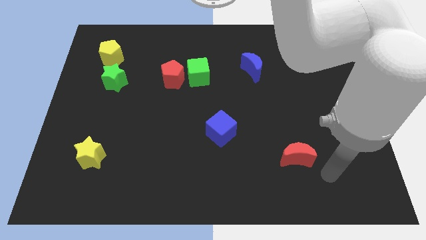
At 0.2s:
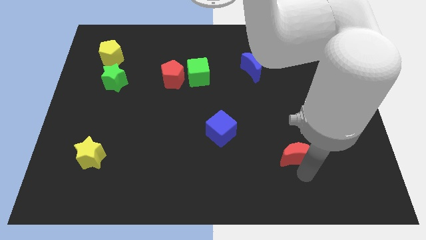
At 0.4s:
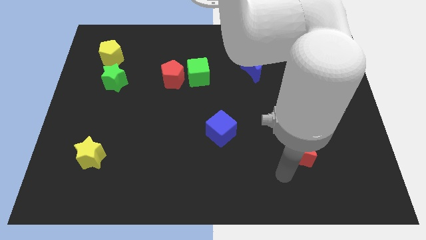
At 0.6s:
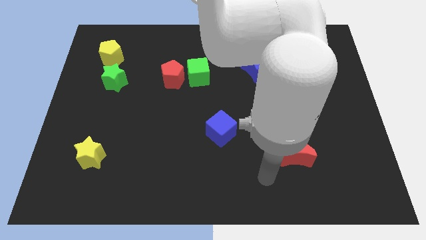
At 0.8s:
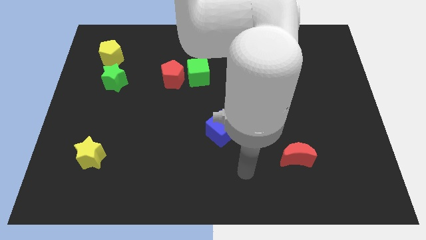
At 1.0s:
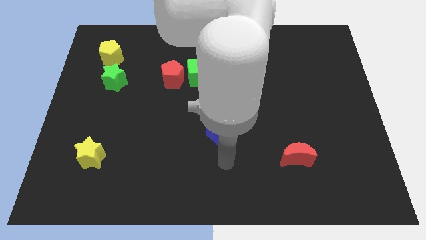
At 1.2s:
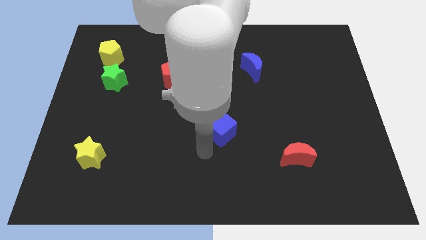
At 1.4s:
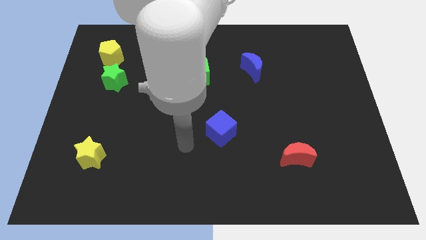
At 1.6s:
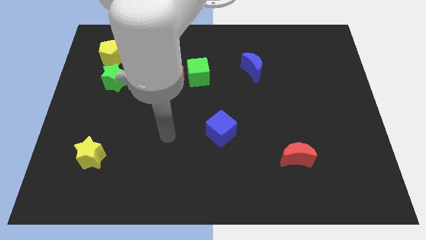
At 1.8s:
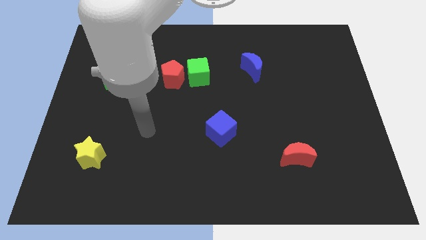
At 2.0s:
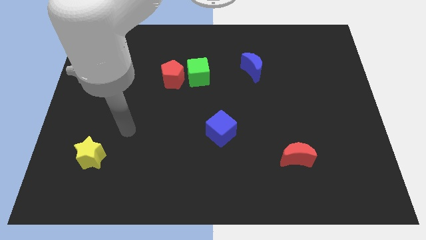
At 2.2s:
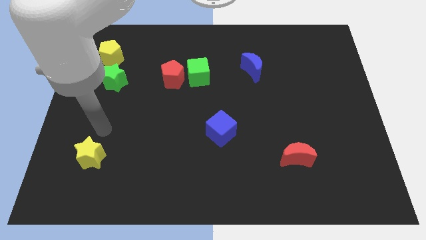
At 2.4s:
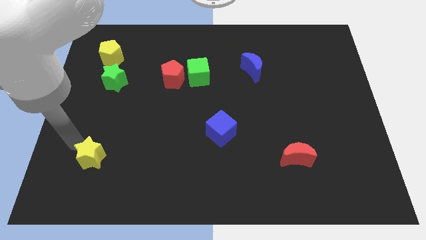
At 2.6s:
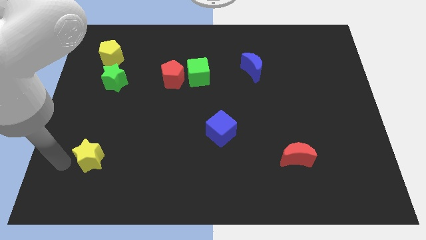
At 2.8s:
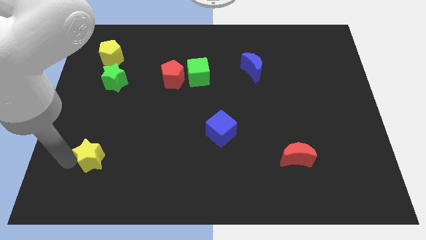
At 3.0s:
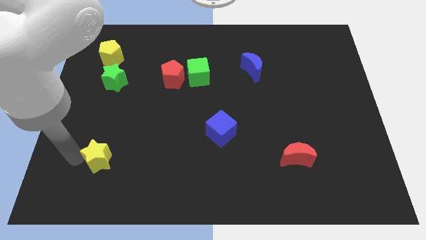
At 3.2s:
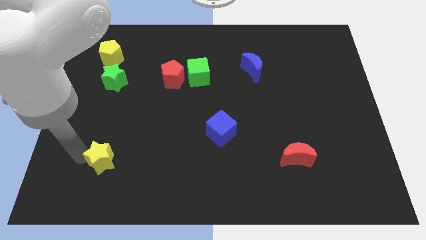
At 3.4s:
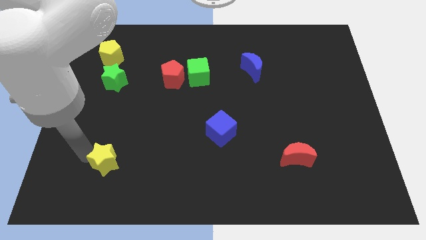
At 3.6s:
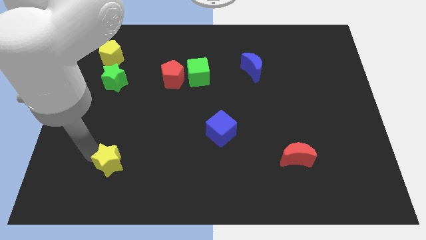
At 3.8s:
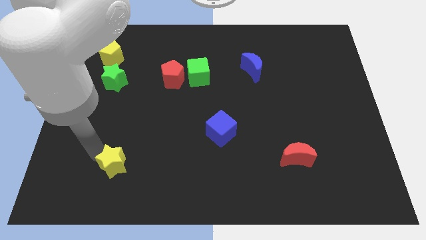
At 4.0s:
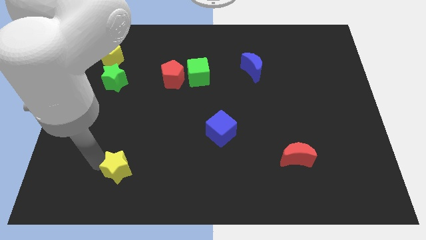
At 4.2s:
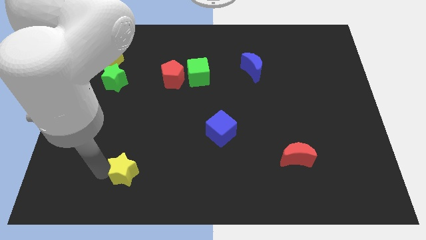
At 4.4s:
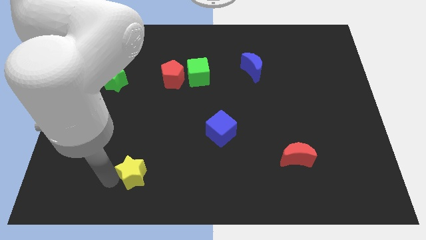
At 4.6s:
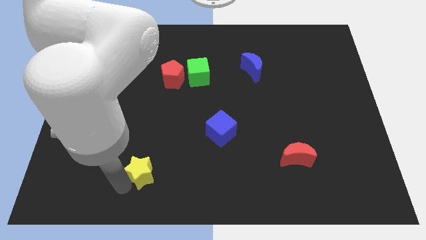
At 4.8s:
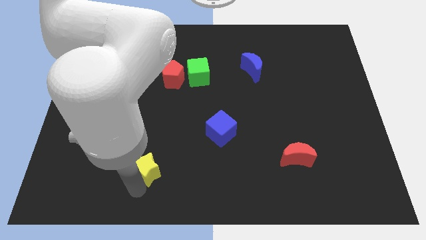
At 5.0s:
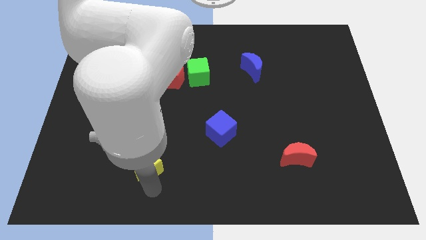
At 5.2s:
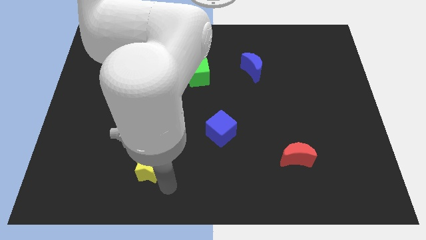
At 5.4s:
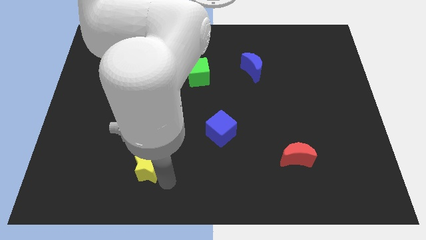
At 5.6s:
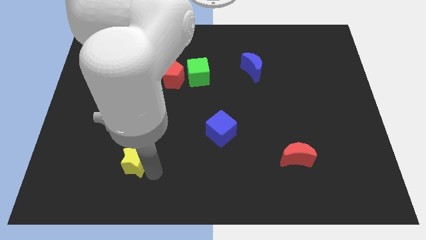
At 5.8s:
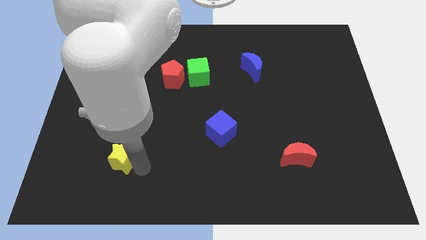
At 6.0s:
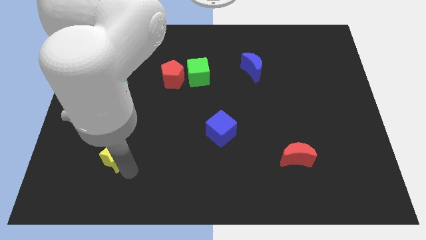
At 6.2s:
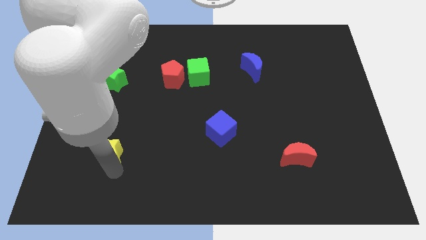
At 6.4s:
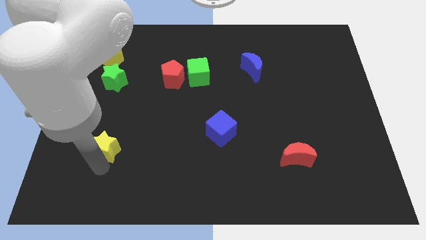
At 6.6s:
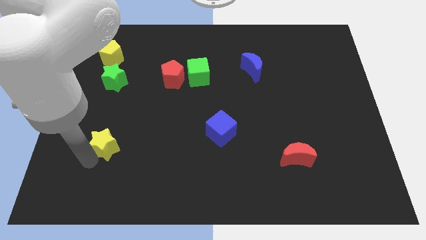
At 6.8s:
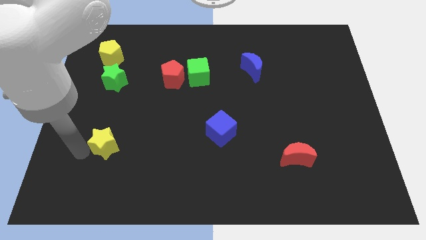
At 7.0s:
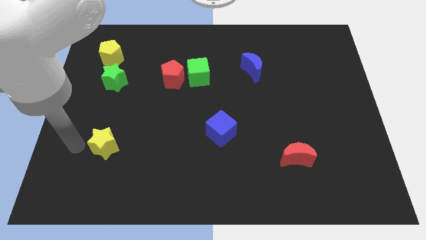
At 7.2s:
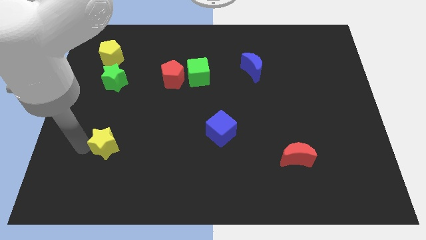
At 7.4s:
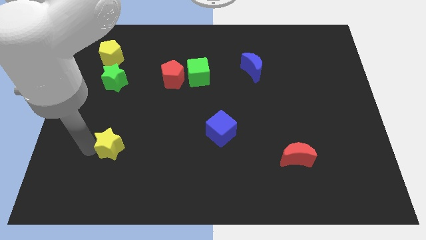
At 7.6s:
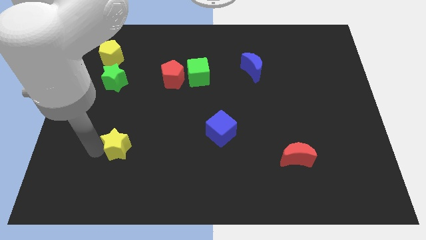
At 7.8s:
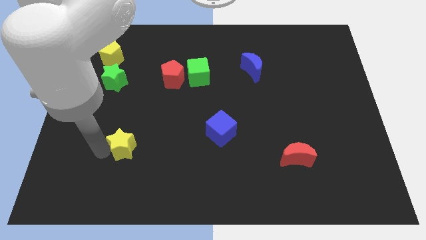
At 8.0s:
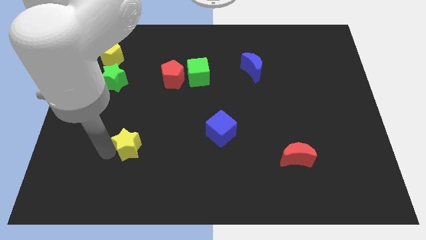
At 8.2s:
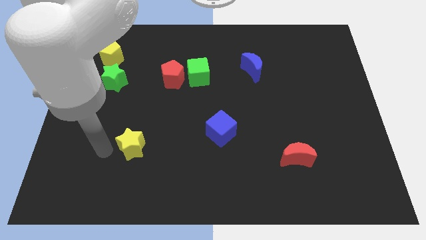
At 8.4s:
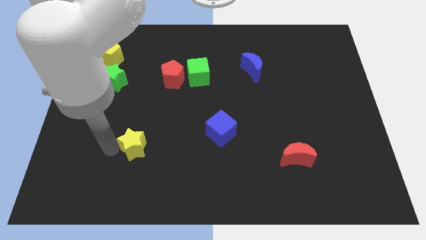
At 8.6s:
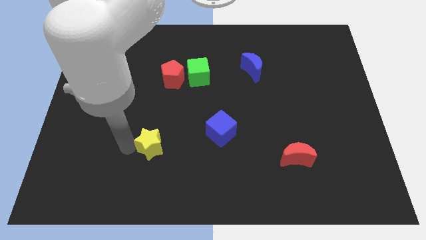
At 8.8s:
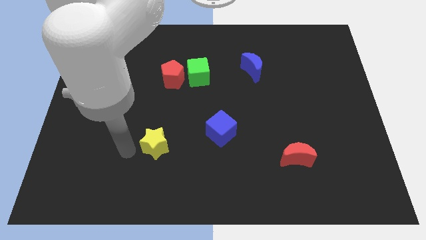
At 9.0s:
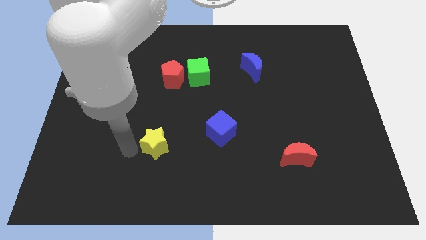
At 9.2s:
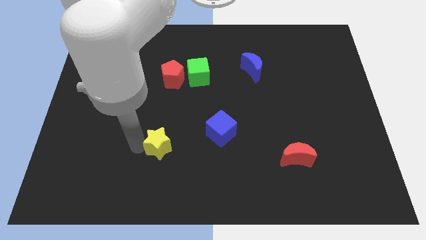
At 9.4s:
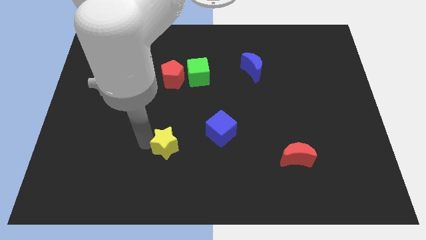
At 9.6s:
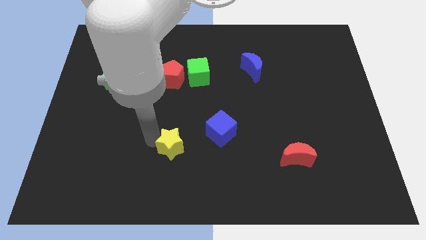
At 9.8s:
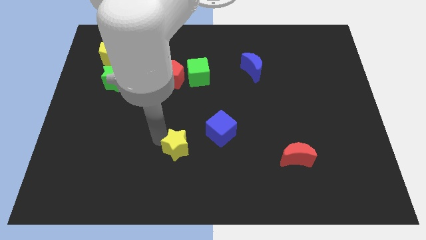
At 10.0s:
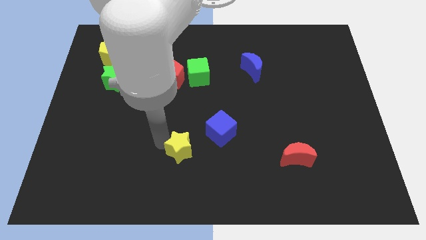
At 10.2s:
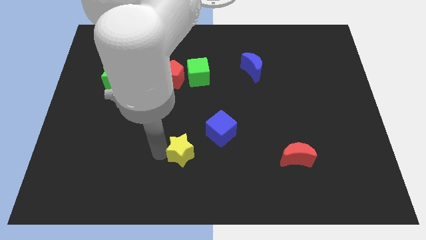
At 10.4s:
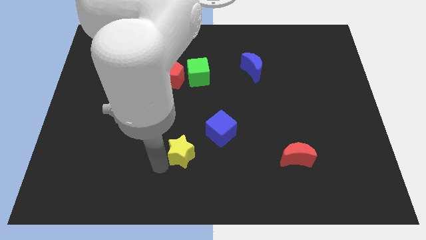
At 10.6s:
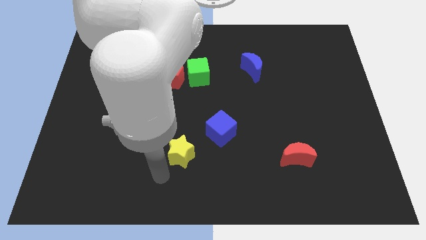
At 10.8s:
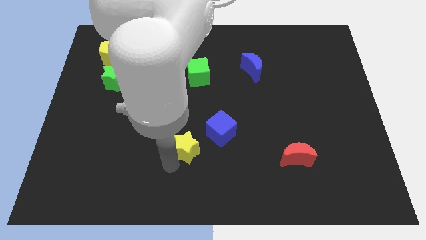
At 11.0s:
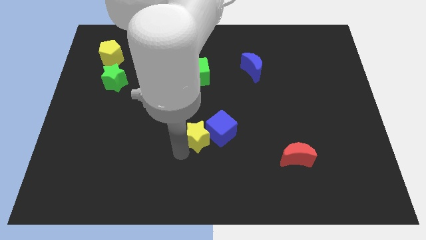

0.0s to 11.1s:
move the yellow star next to the blue cube

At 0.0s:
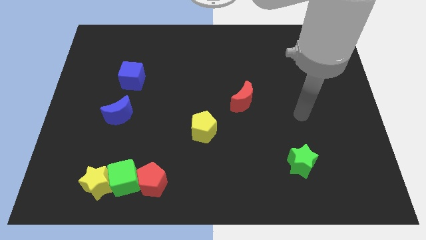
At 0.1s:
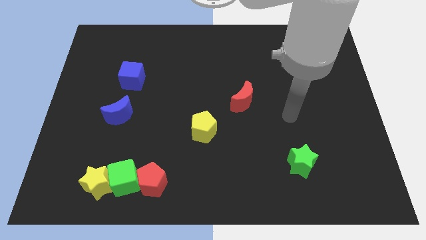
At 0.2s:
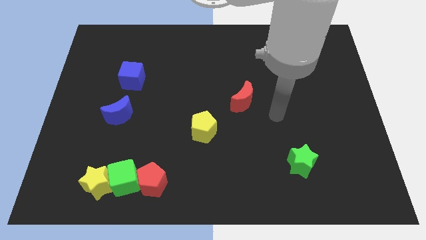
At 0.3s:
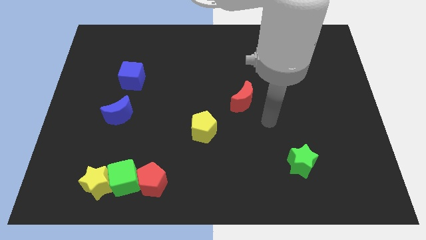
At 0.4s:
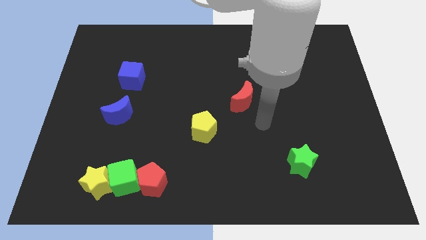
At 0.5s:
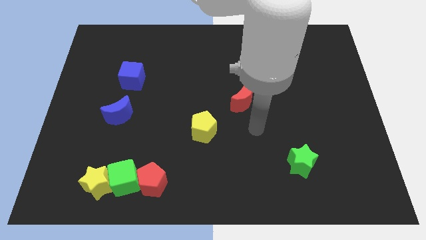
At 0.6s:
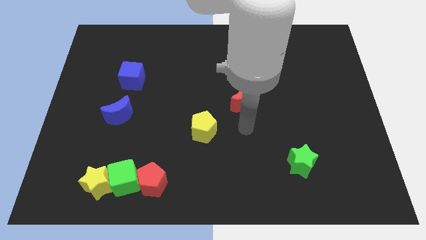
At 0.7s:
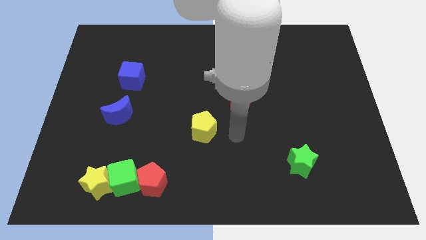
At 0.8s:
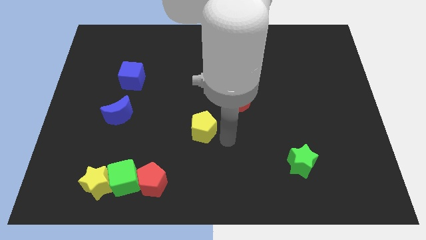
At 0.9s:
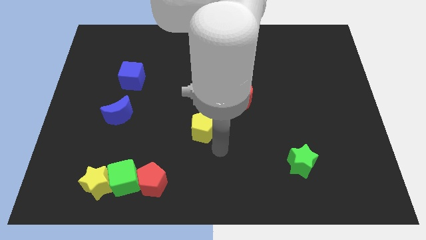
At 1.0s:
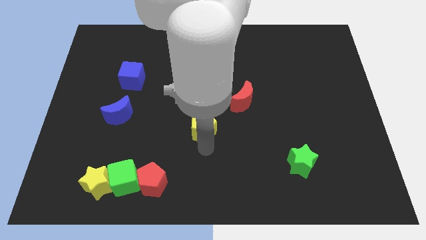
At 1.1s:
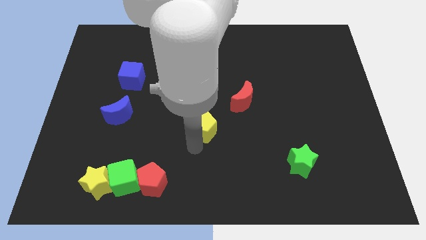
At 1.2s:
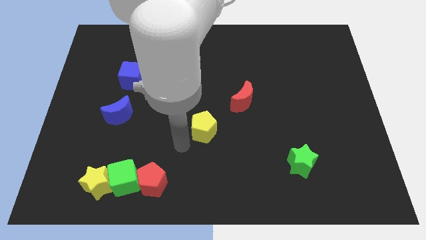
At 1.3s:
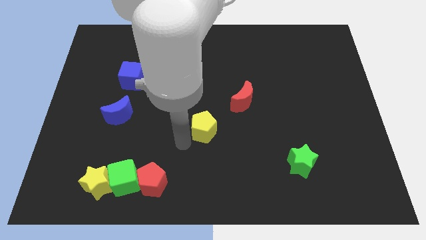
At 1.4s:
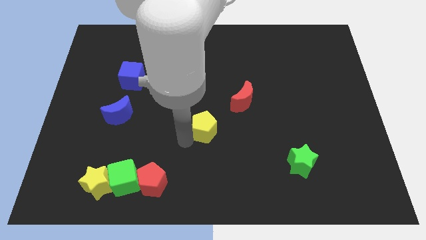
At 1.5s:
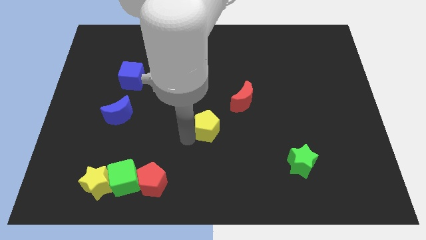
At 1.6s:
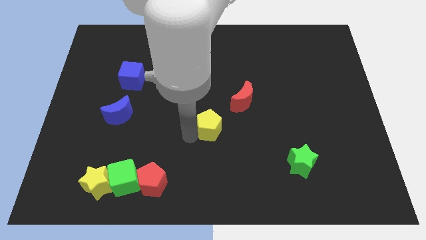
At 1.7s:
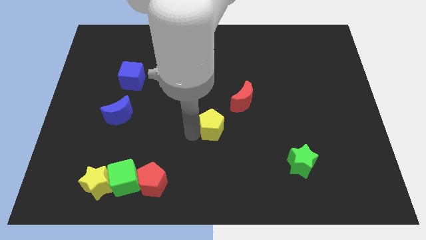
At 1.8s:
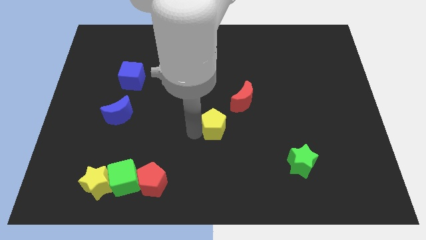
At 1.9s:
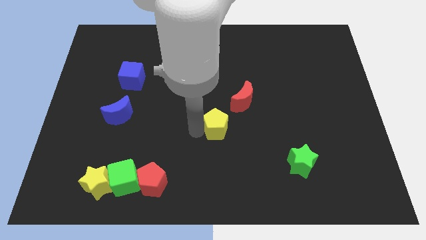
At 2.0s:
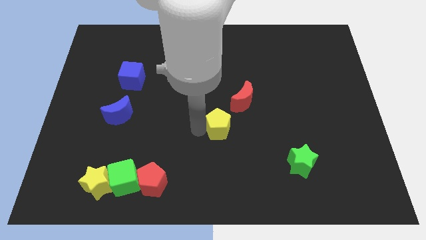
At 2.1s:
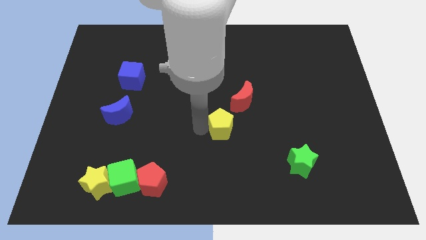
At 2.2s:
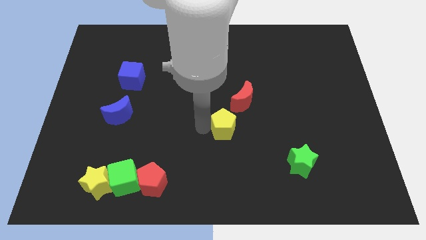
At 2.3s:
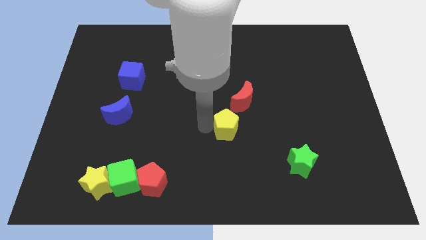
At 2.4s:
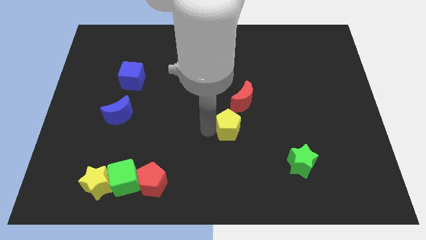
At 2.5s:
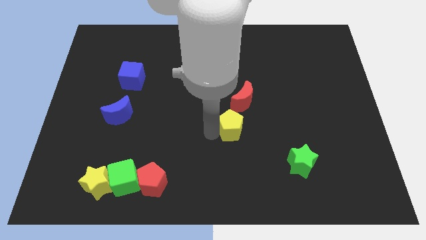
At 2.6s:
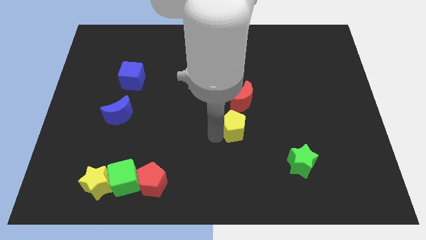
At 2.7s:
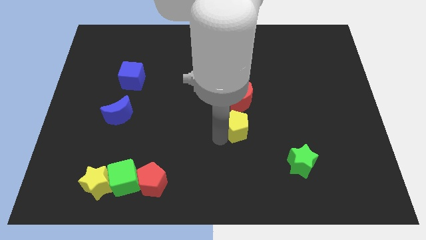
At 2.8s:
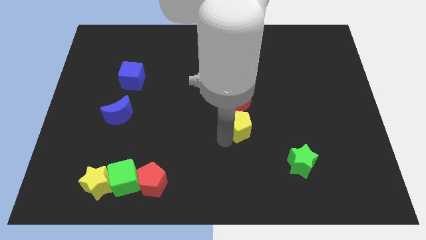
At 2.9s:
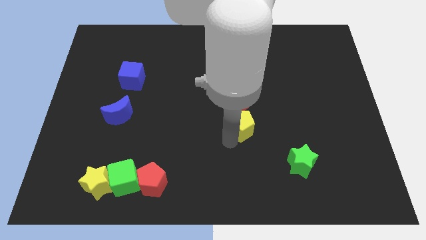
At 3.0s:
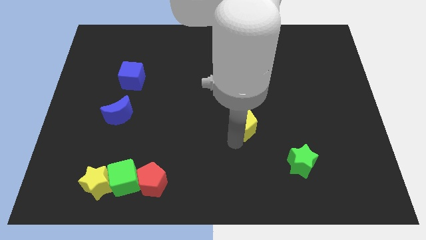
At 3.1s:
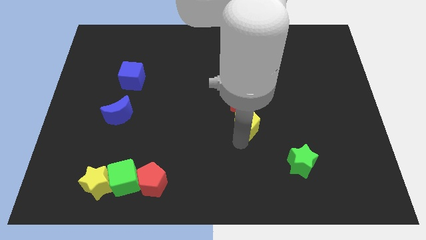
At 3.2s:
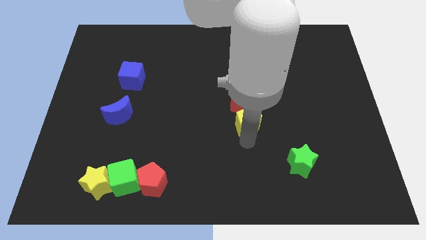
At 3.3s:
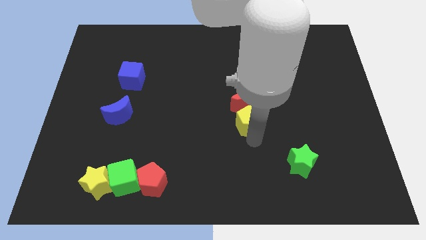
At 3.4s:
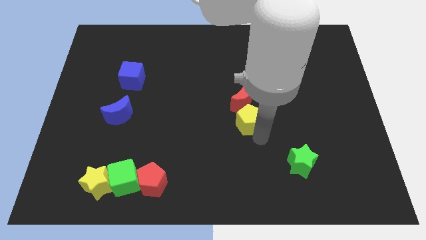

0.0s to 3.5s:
put the yellow pentagon next to the red moon
